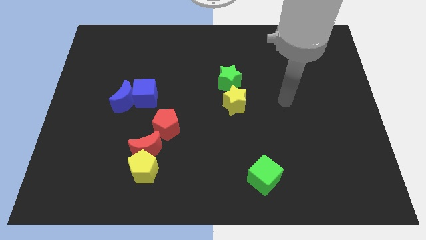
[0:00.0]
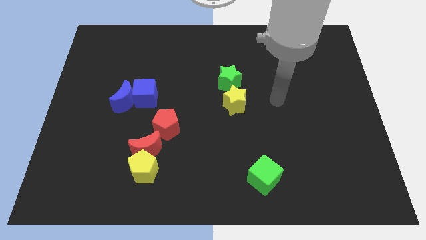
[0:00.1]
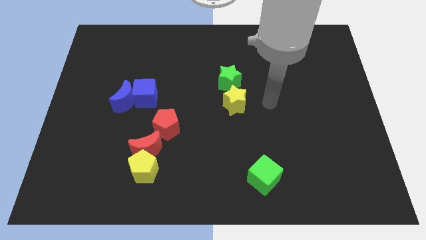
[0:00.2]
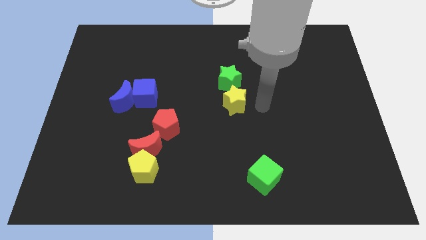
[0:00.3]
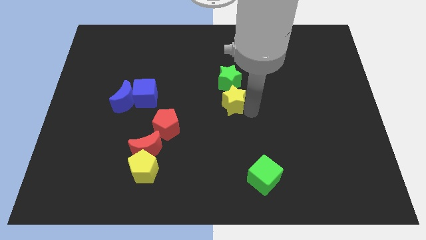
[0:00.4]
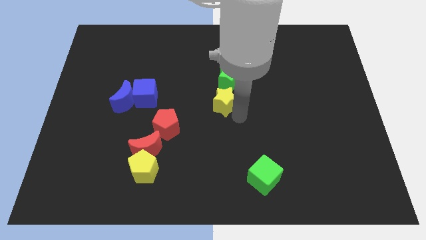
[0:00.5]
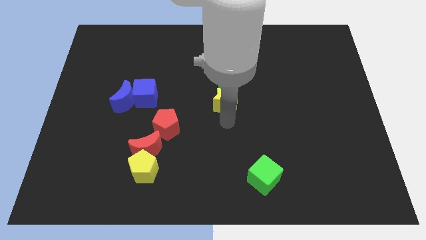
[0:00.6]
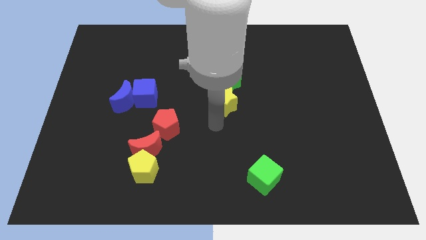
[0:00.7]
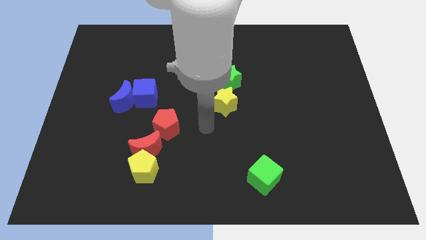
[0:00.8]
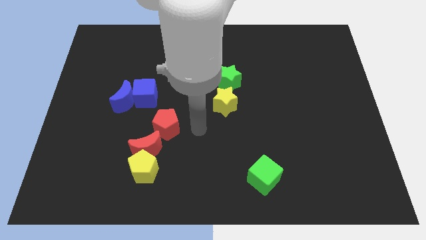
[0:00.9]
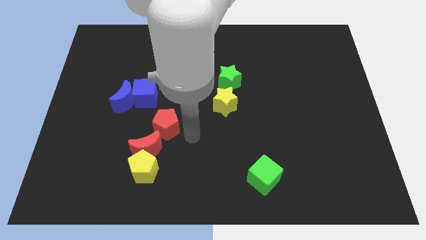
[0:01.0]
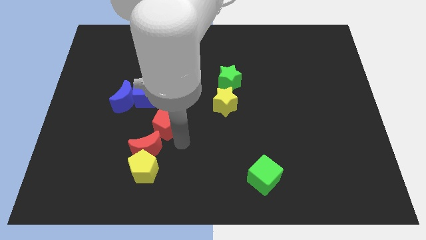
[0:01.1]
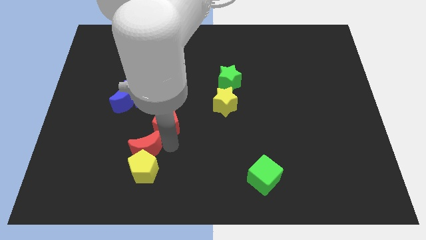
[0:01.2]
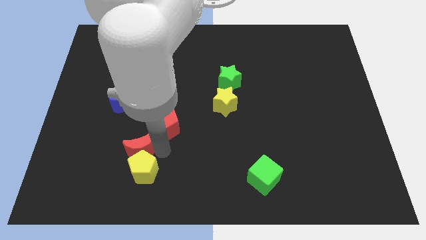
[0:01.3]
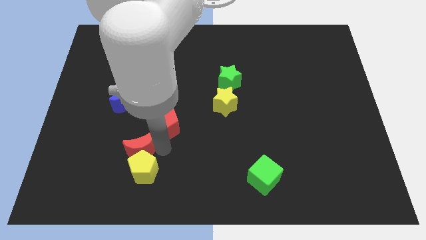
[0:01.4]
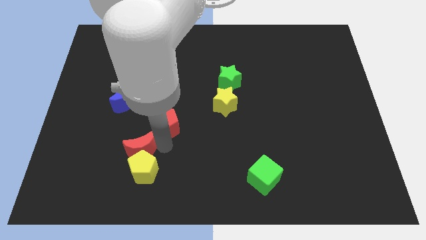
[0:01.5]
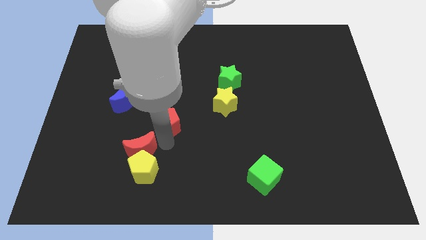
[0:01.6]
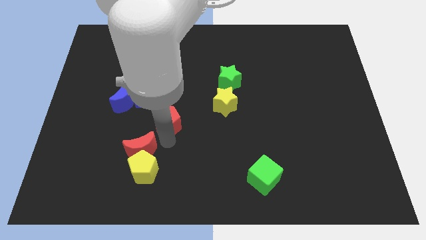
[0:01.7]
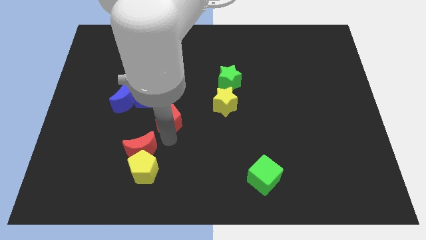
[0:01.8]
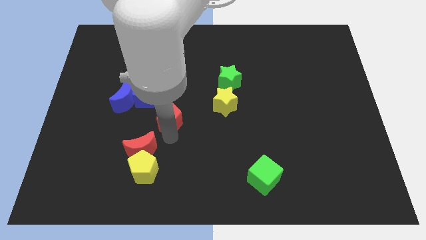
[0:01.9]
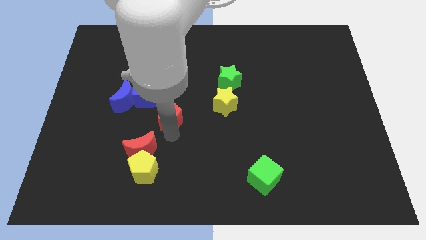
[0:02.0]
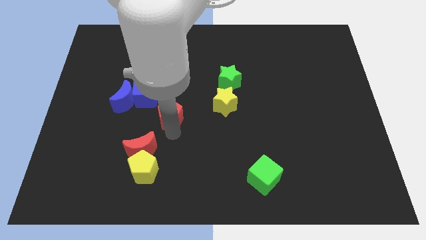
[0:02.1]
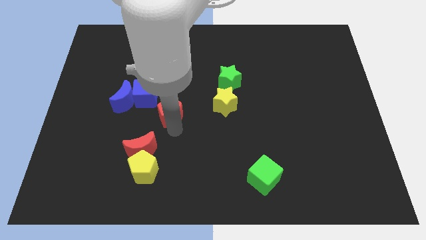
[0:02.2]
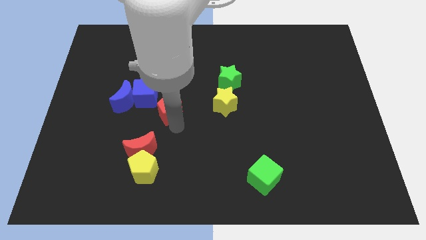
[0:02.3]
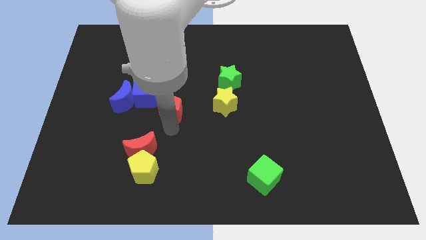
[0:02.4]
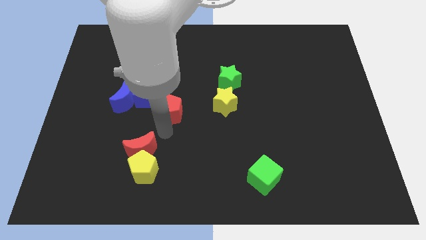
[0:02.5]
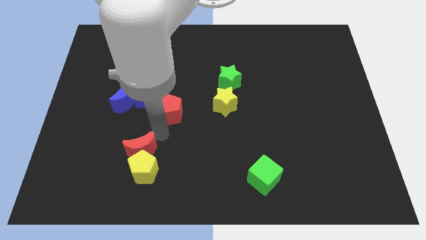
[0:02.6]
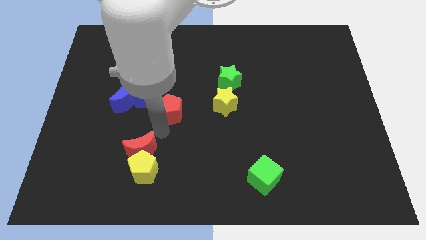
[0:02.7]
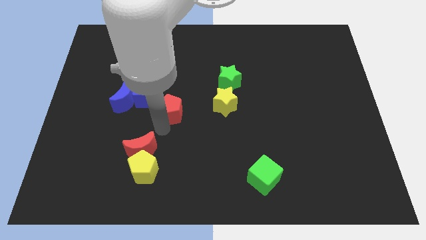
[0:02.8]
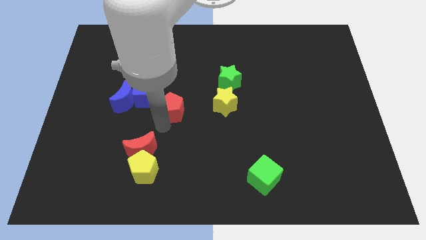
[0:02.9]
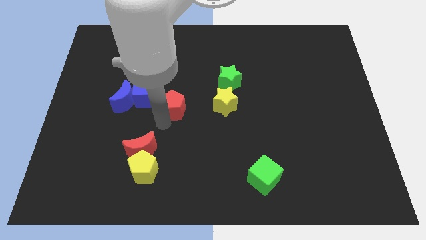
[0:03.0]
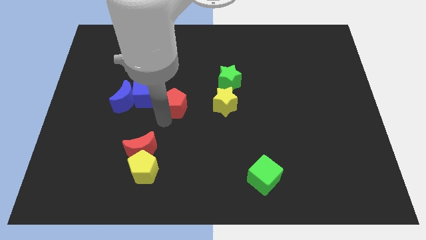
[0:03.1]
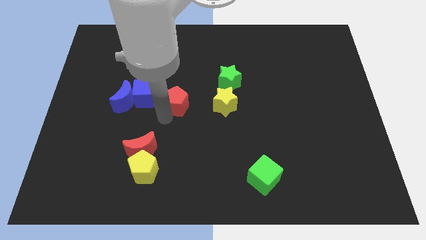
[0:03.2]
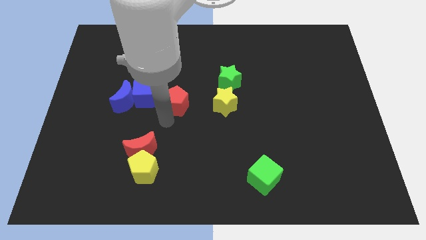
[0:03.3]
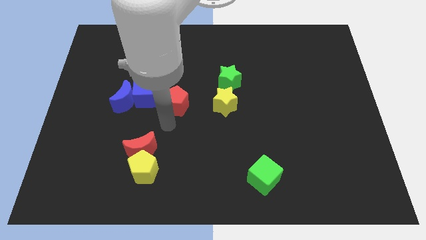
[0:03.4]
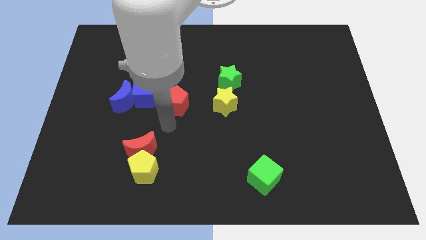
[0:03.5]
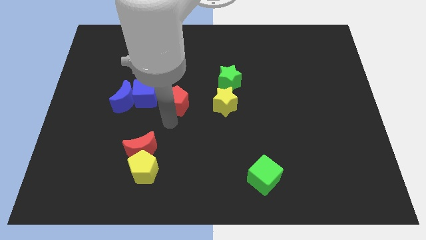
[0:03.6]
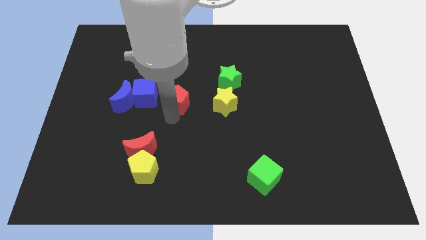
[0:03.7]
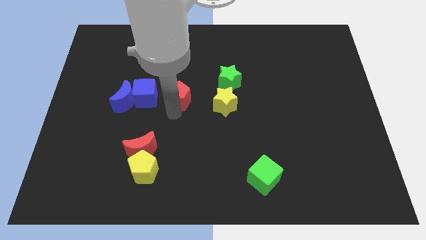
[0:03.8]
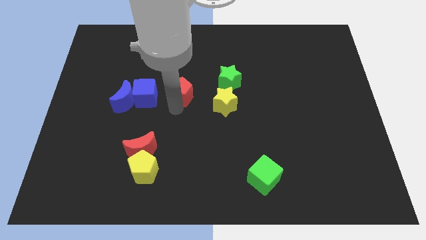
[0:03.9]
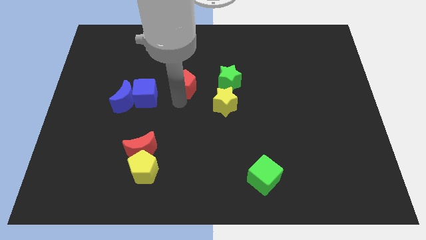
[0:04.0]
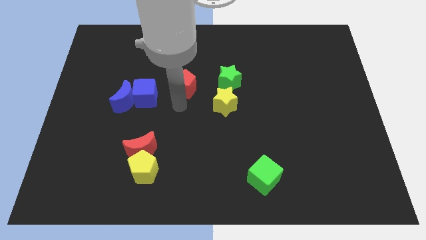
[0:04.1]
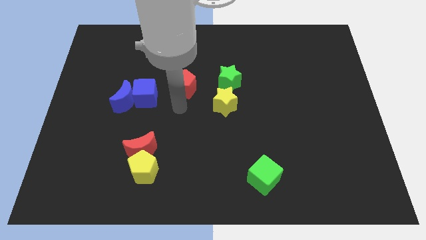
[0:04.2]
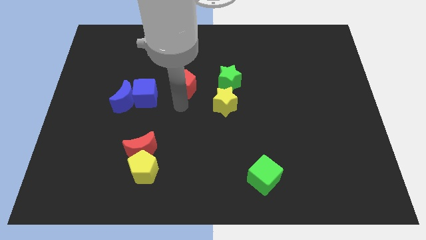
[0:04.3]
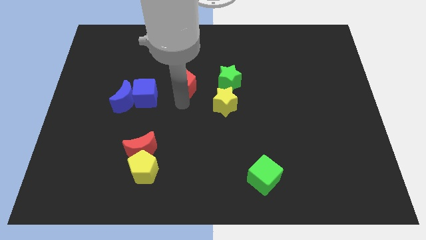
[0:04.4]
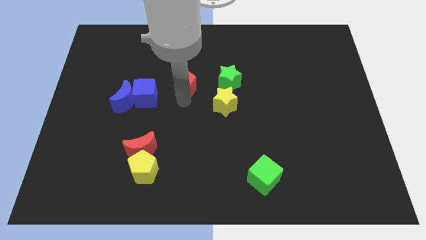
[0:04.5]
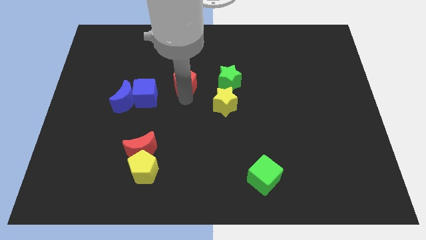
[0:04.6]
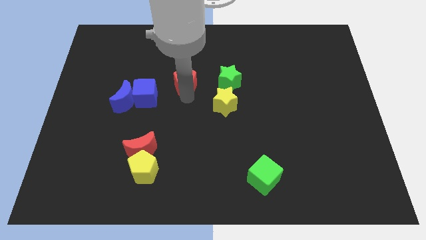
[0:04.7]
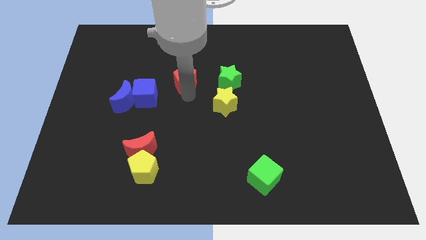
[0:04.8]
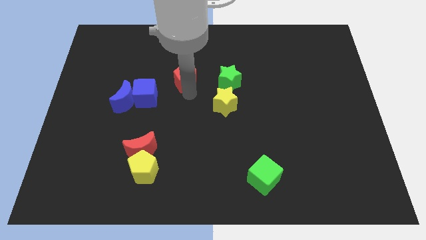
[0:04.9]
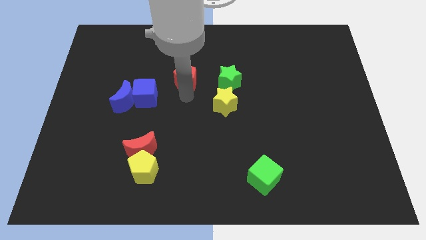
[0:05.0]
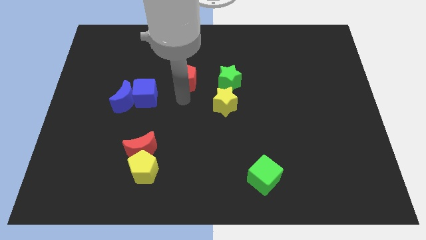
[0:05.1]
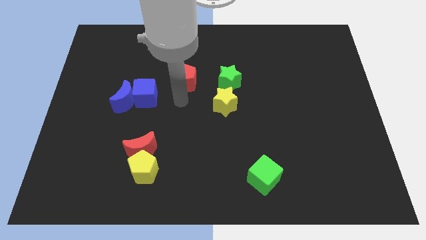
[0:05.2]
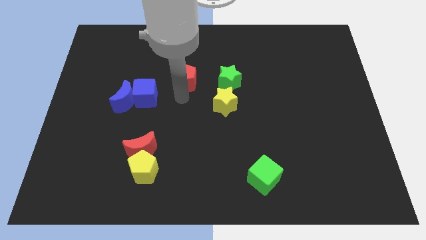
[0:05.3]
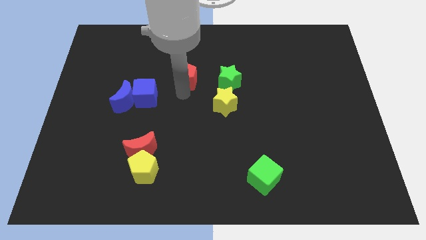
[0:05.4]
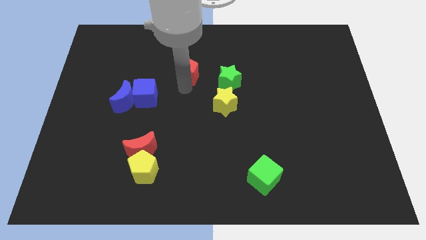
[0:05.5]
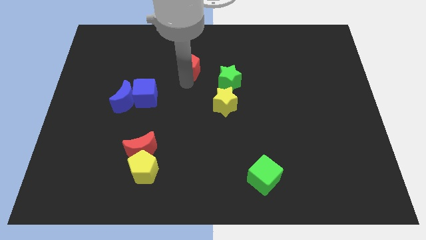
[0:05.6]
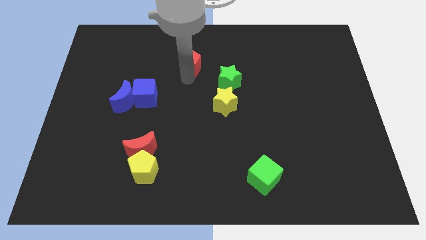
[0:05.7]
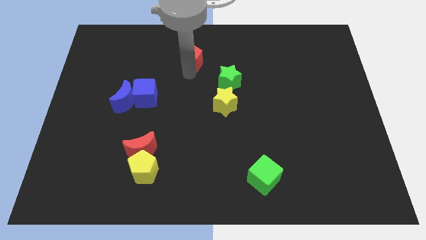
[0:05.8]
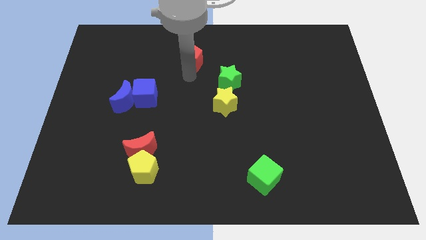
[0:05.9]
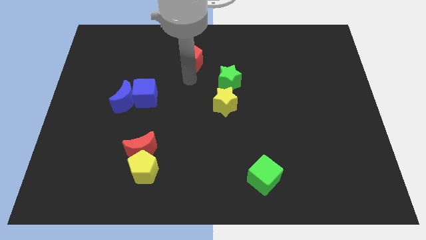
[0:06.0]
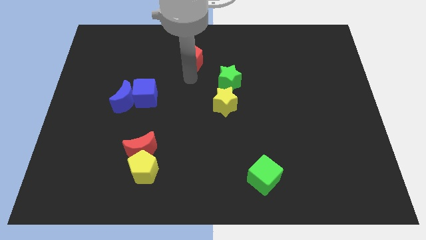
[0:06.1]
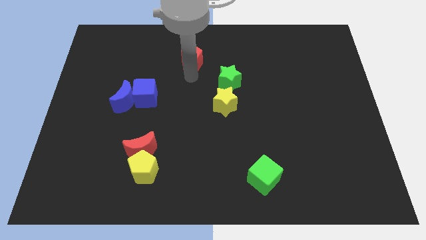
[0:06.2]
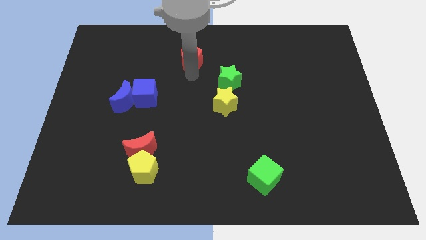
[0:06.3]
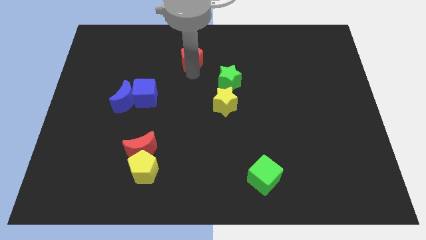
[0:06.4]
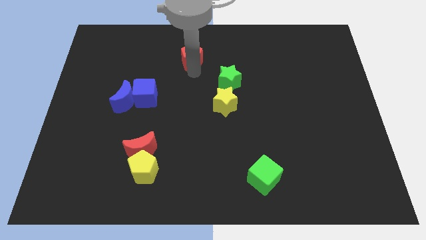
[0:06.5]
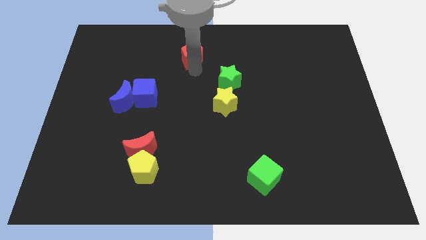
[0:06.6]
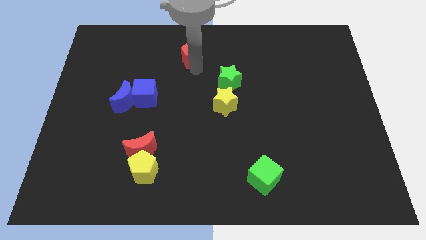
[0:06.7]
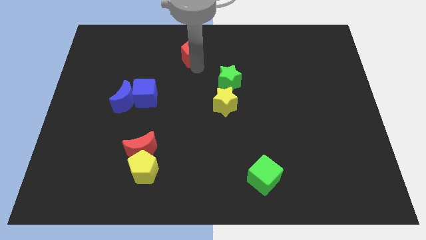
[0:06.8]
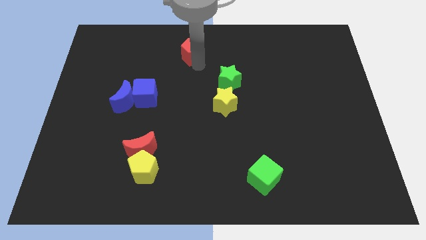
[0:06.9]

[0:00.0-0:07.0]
move the red pentagon to the towards your base
